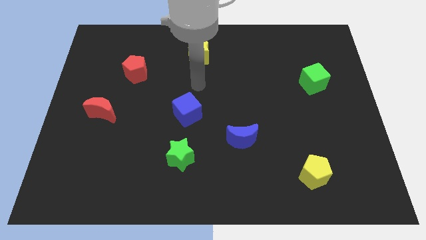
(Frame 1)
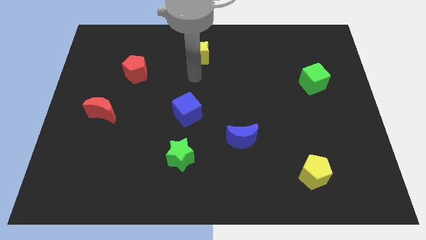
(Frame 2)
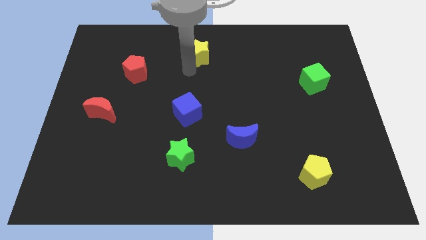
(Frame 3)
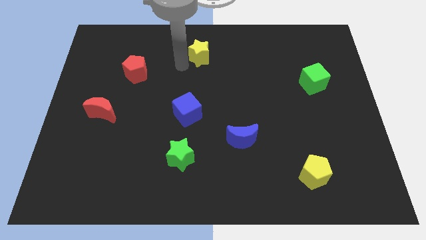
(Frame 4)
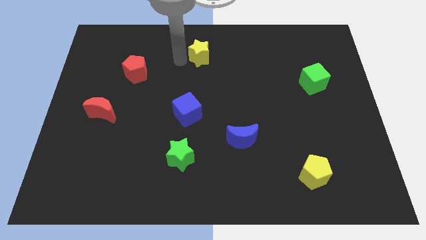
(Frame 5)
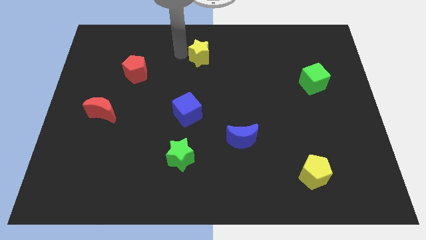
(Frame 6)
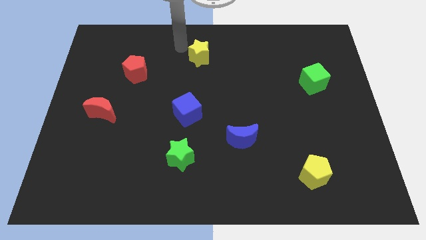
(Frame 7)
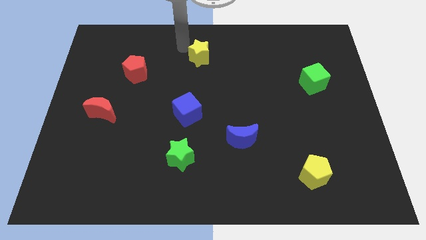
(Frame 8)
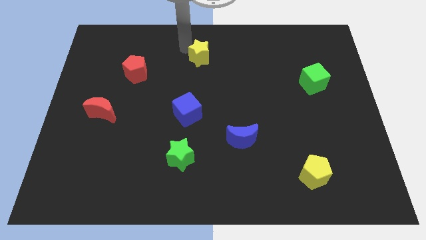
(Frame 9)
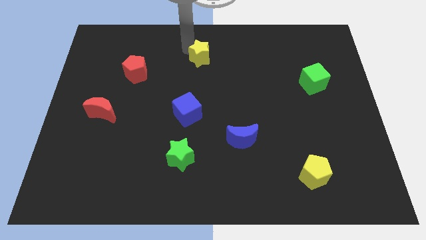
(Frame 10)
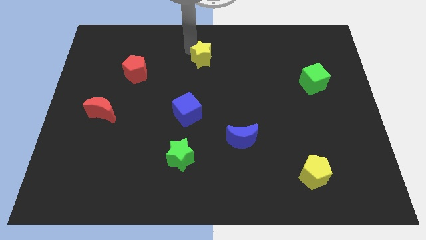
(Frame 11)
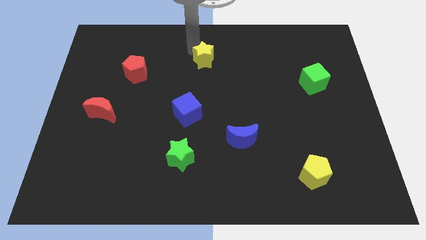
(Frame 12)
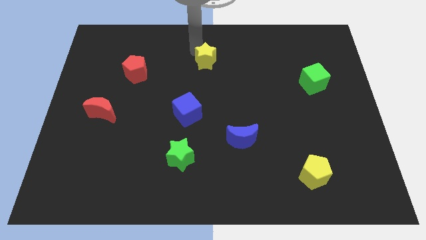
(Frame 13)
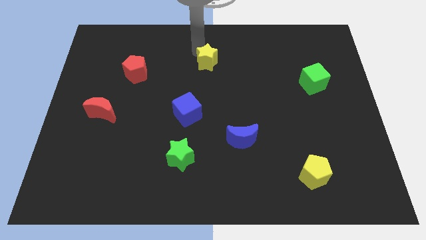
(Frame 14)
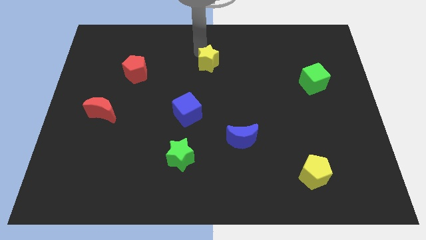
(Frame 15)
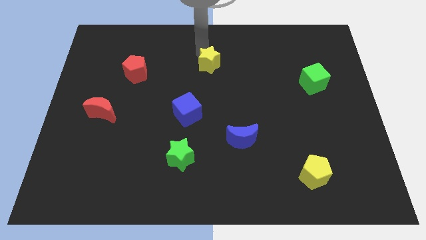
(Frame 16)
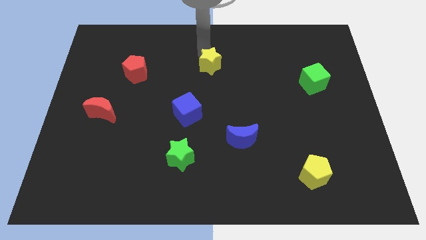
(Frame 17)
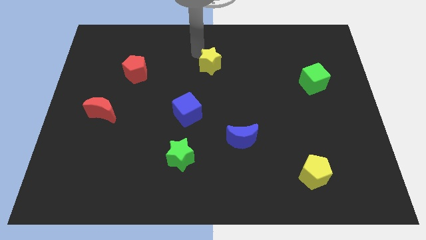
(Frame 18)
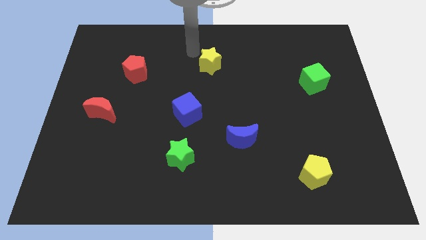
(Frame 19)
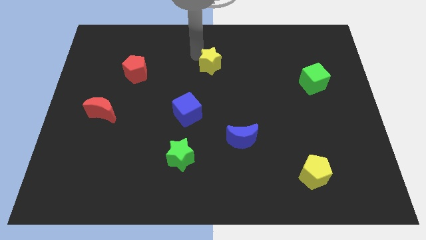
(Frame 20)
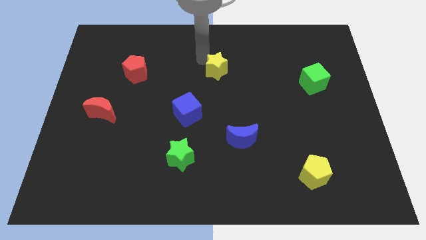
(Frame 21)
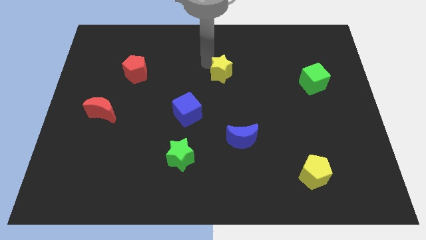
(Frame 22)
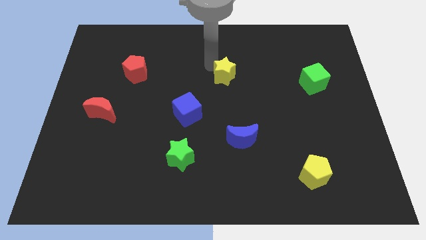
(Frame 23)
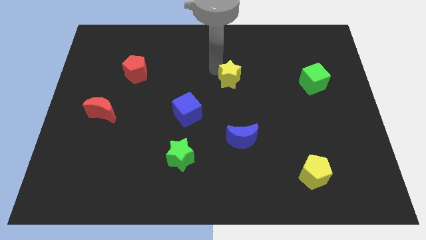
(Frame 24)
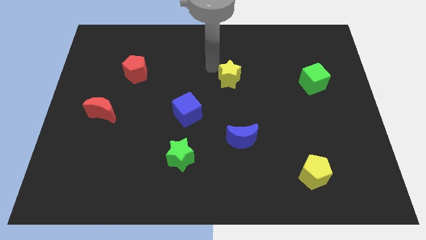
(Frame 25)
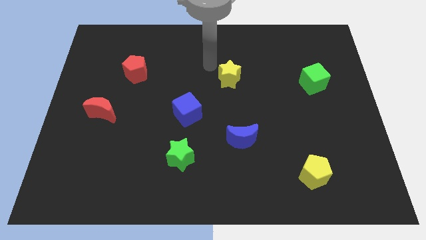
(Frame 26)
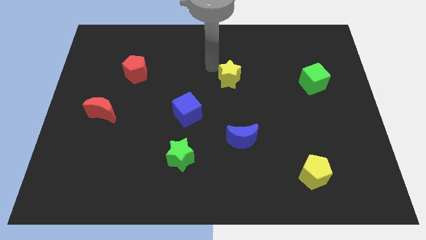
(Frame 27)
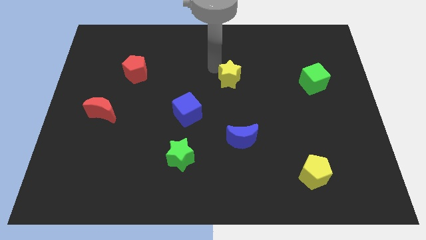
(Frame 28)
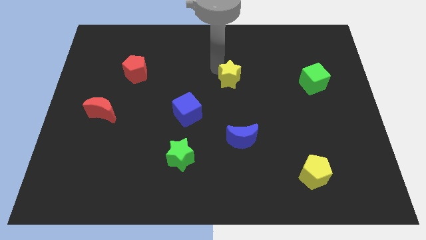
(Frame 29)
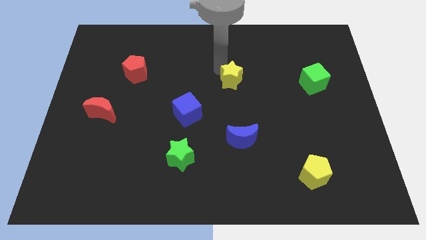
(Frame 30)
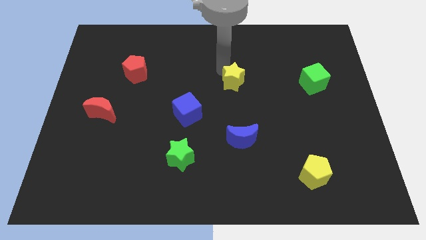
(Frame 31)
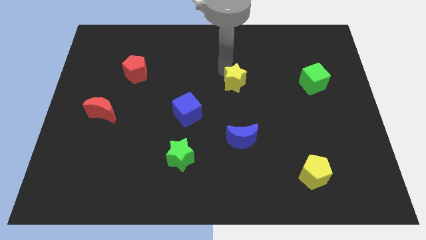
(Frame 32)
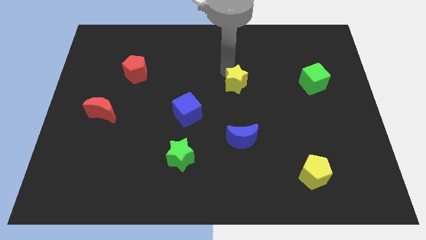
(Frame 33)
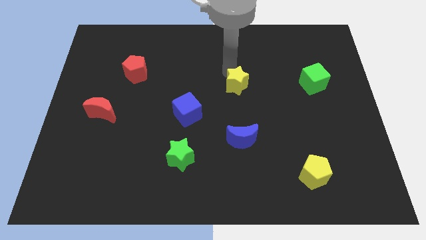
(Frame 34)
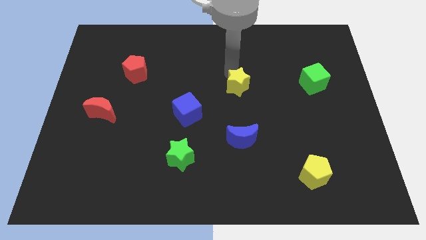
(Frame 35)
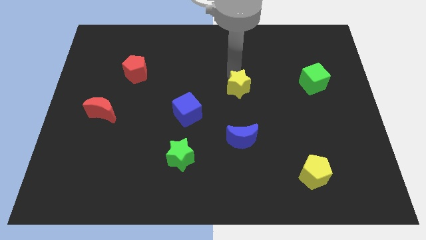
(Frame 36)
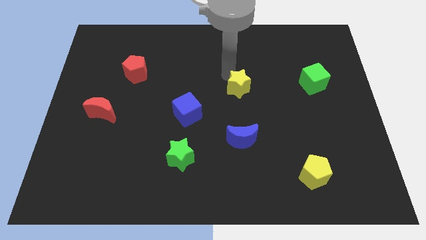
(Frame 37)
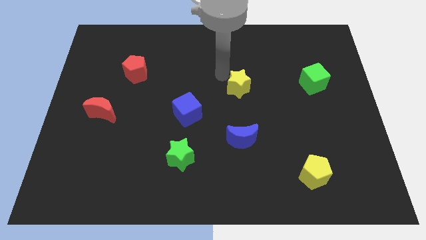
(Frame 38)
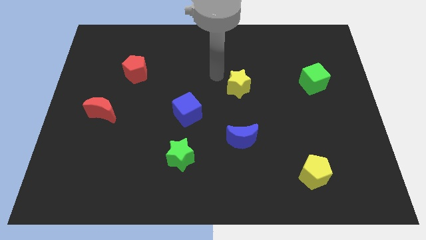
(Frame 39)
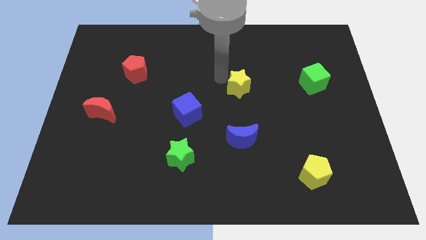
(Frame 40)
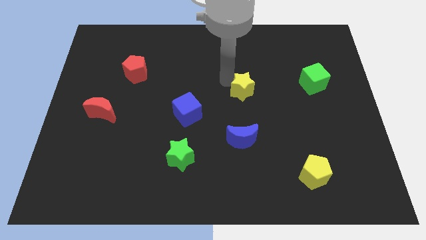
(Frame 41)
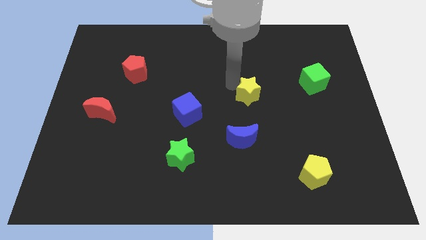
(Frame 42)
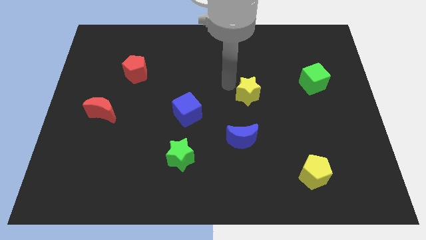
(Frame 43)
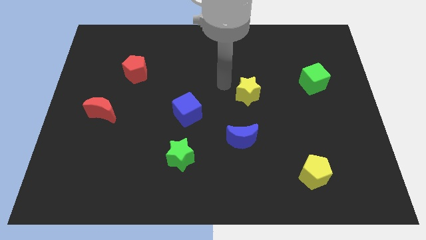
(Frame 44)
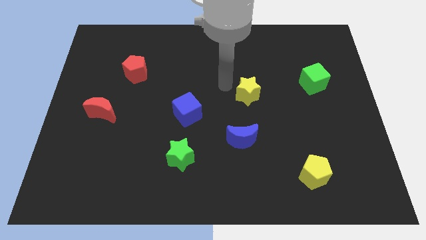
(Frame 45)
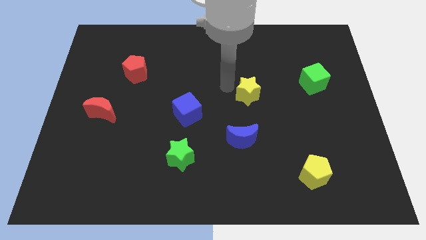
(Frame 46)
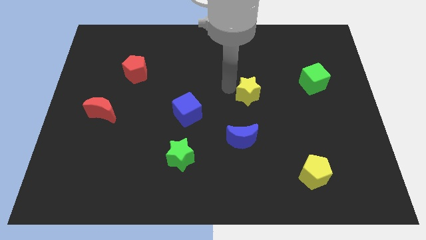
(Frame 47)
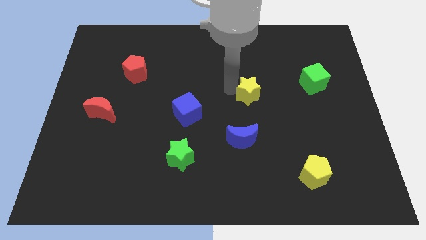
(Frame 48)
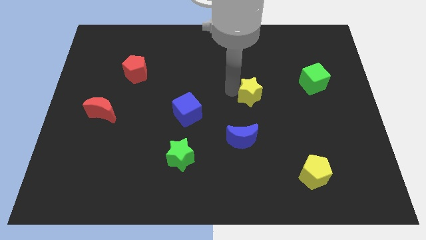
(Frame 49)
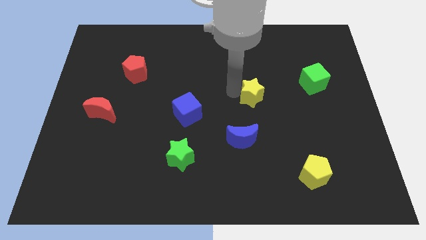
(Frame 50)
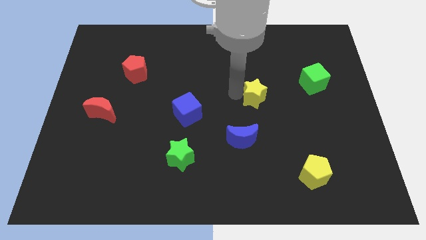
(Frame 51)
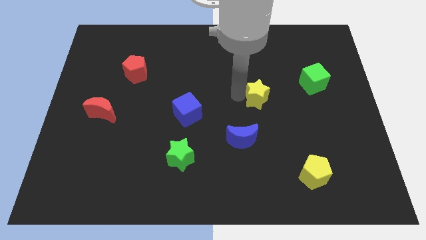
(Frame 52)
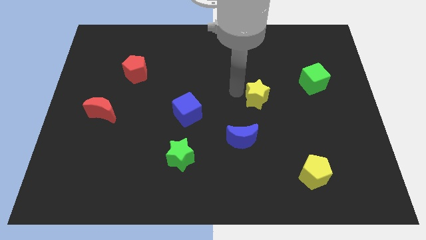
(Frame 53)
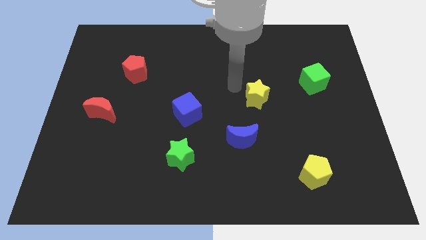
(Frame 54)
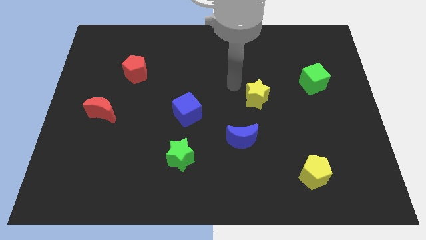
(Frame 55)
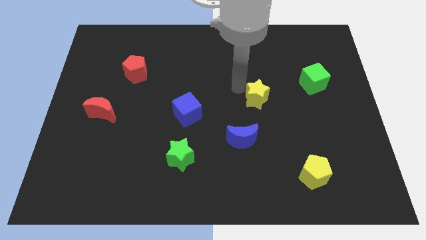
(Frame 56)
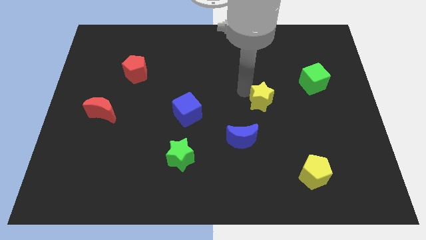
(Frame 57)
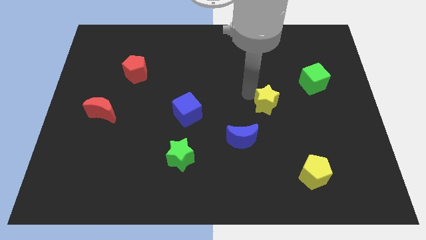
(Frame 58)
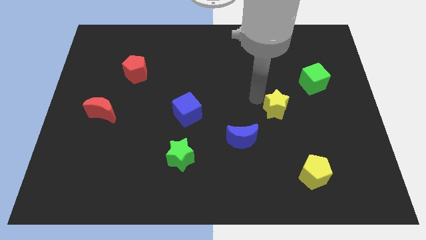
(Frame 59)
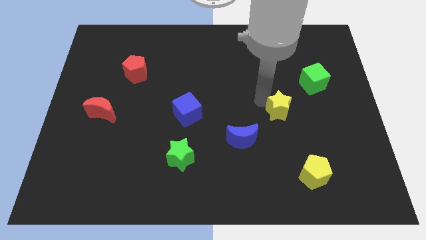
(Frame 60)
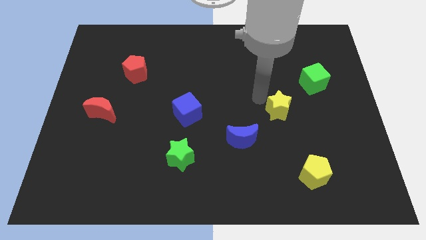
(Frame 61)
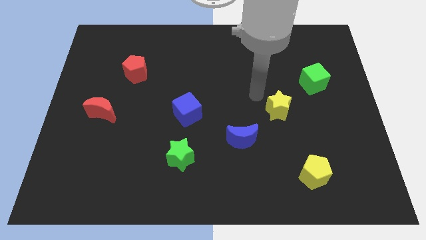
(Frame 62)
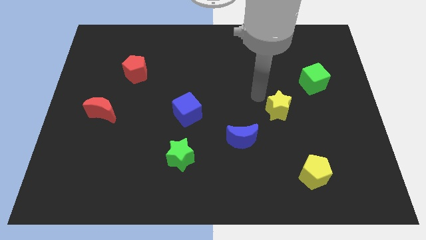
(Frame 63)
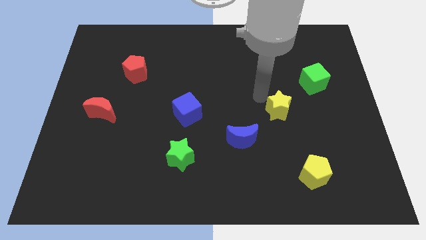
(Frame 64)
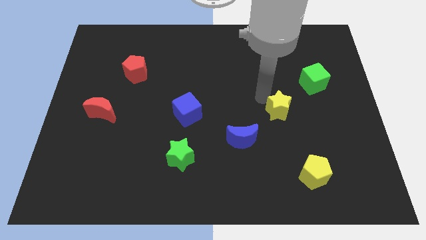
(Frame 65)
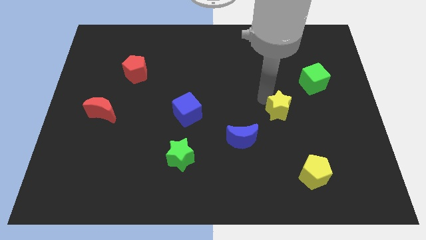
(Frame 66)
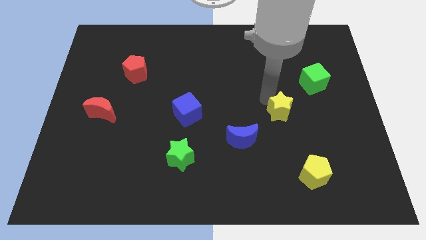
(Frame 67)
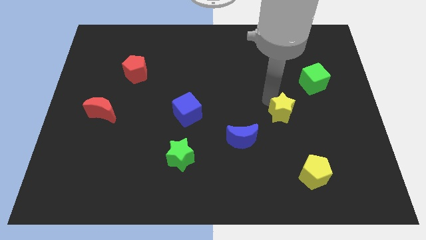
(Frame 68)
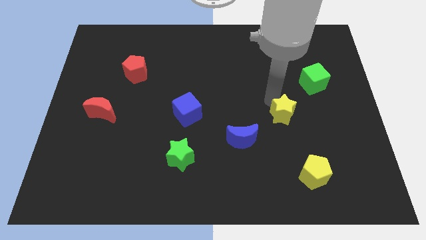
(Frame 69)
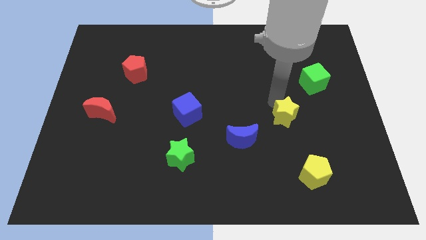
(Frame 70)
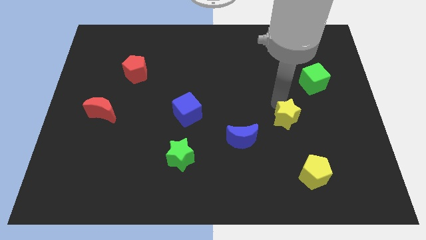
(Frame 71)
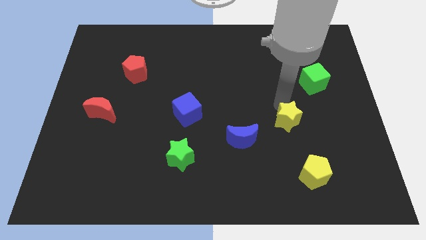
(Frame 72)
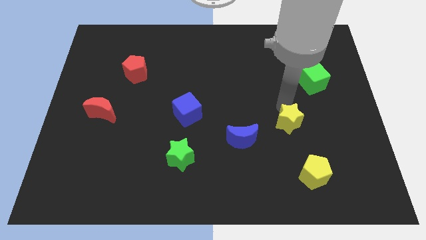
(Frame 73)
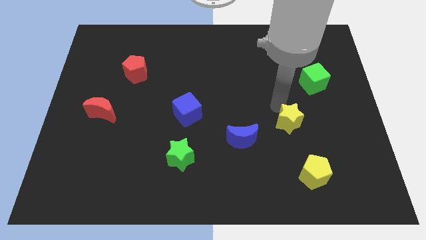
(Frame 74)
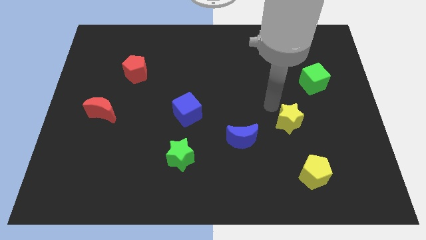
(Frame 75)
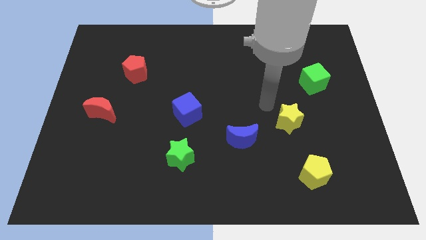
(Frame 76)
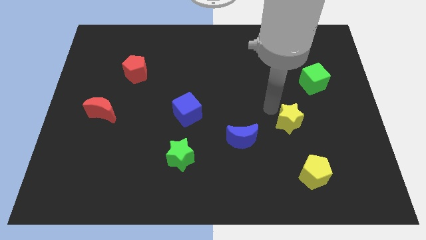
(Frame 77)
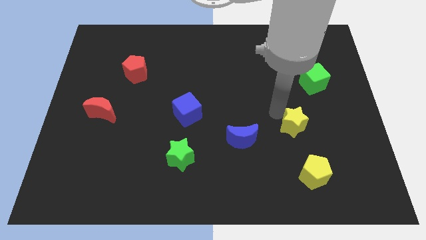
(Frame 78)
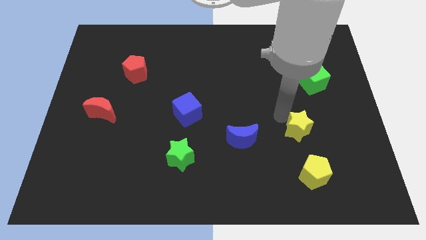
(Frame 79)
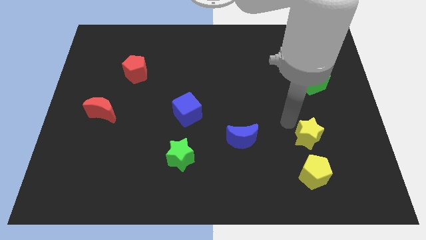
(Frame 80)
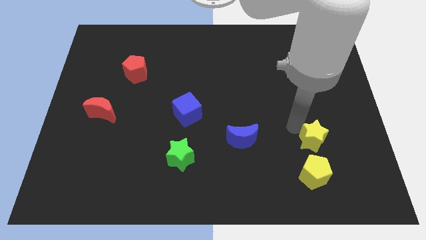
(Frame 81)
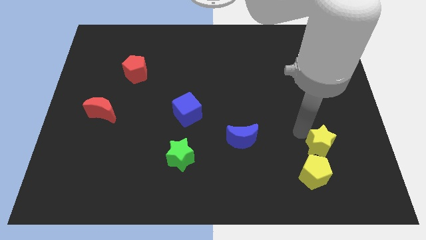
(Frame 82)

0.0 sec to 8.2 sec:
move the yellow star to the top right side of the yellow pentagon
